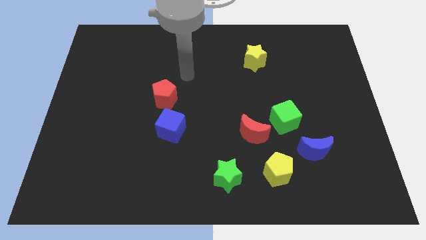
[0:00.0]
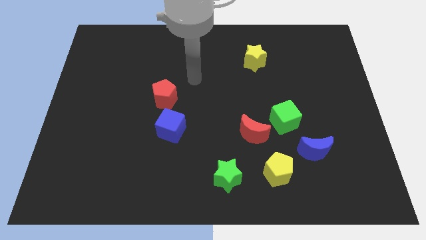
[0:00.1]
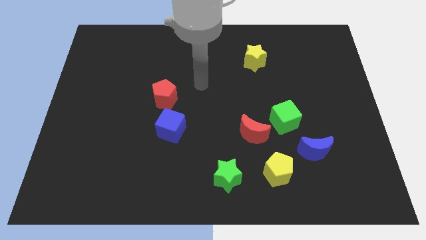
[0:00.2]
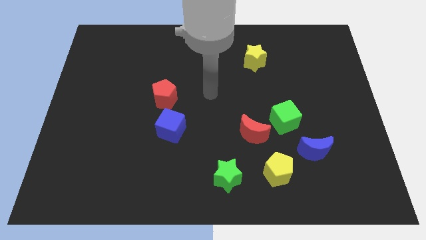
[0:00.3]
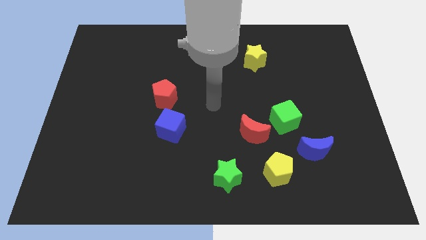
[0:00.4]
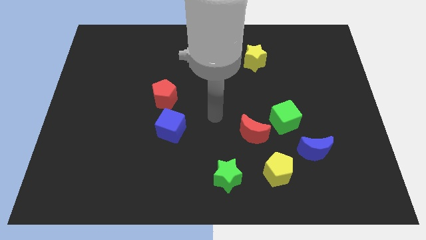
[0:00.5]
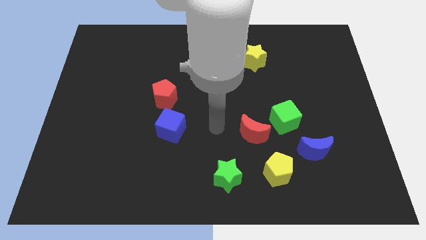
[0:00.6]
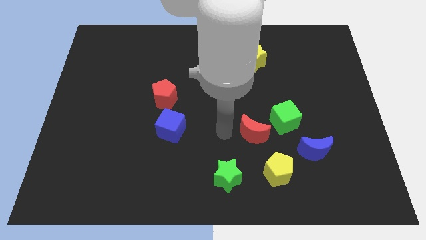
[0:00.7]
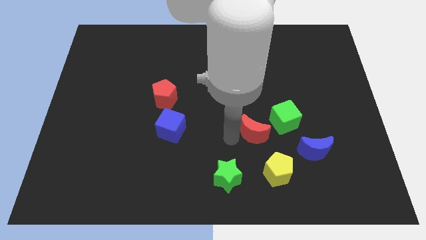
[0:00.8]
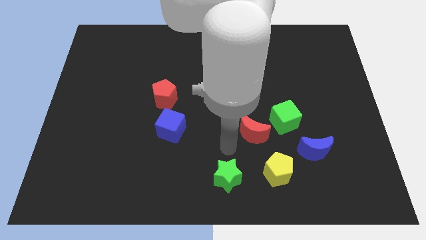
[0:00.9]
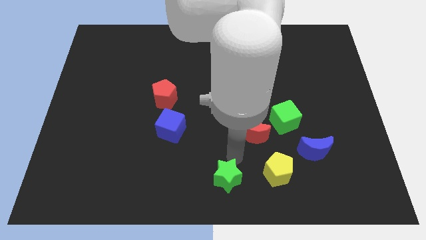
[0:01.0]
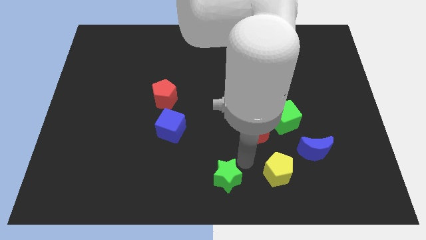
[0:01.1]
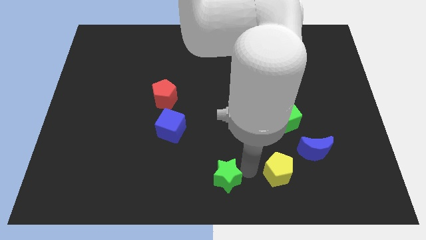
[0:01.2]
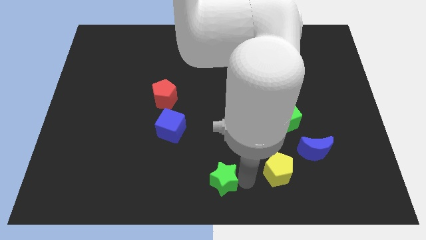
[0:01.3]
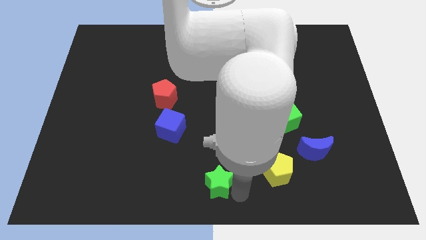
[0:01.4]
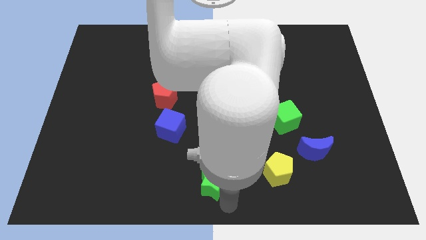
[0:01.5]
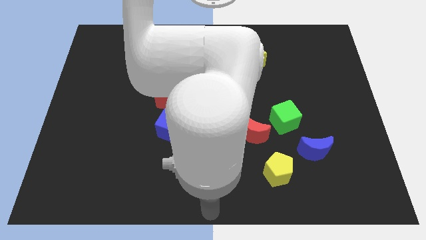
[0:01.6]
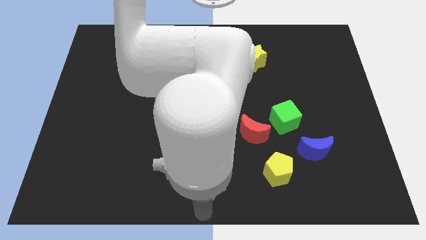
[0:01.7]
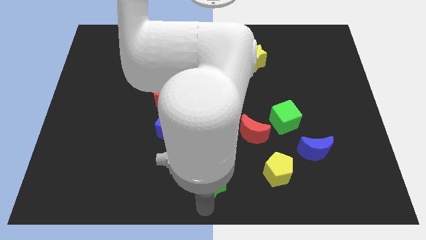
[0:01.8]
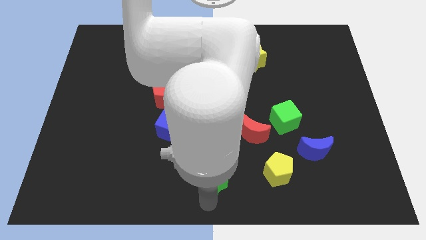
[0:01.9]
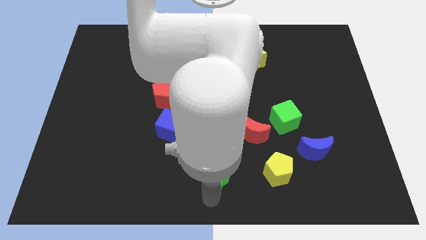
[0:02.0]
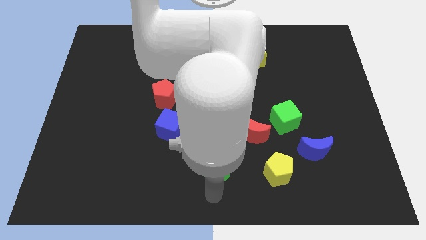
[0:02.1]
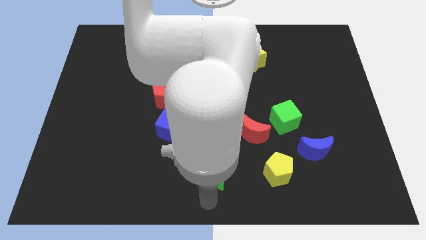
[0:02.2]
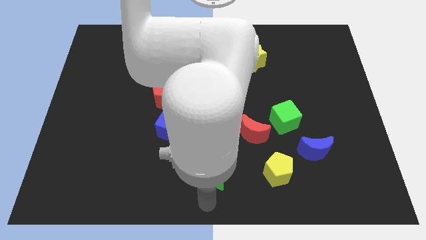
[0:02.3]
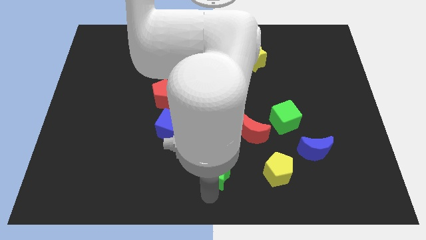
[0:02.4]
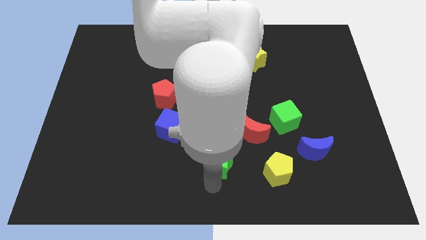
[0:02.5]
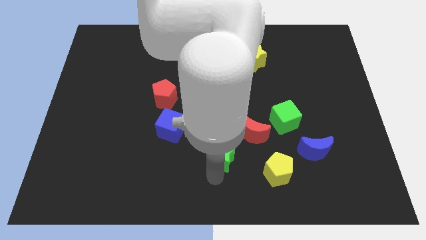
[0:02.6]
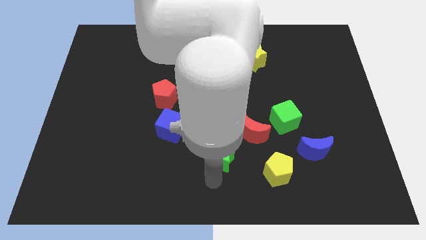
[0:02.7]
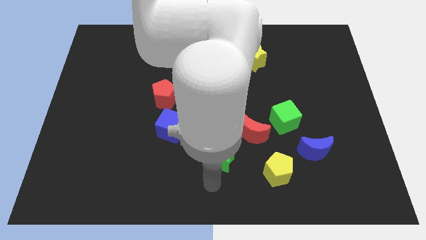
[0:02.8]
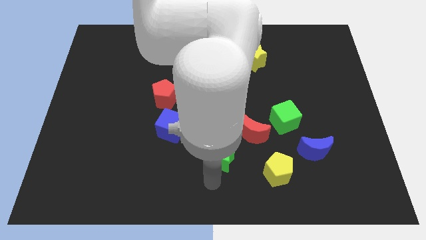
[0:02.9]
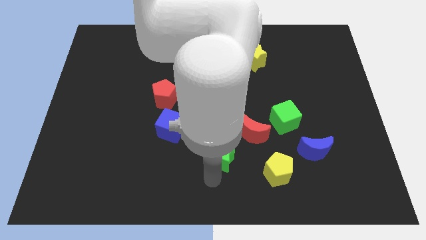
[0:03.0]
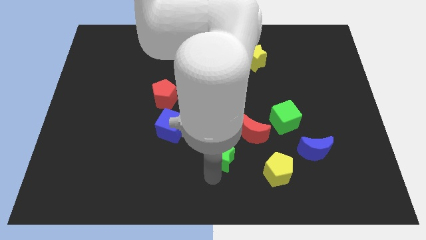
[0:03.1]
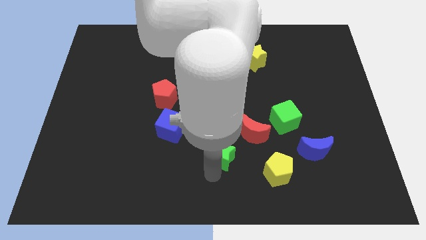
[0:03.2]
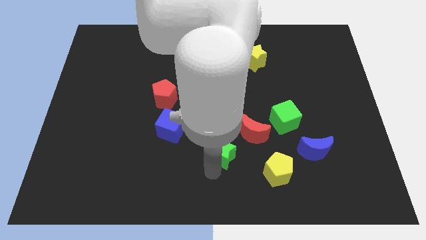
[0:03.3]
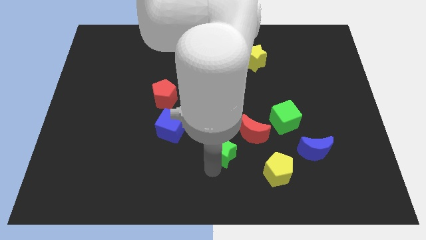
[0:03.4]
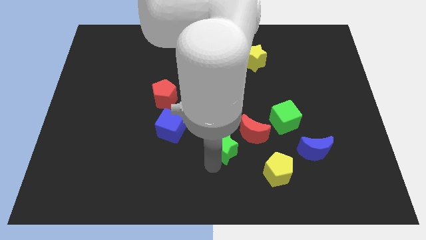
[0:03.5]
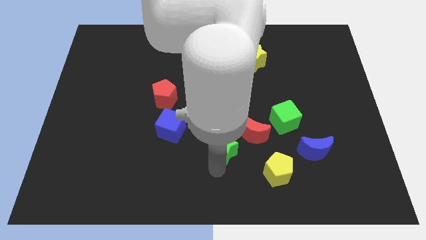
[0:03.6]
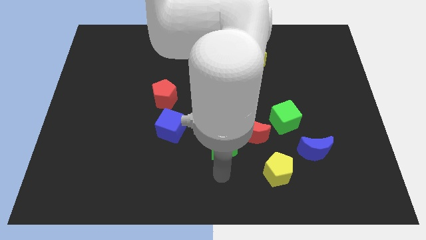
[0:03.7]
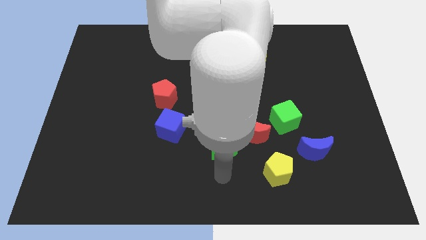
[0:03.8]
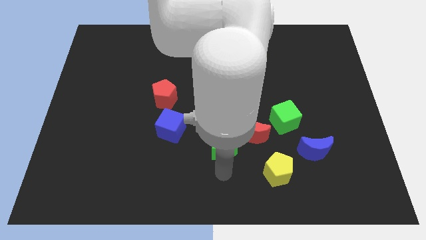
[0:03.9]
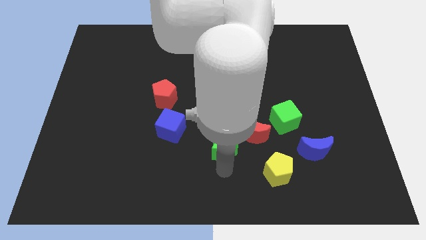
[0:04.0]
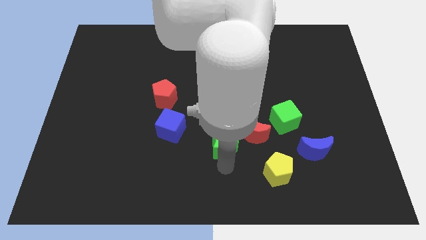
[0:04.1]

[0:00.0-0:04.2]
slightly push the green star up

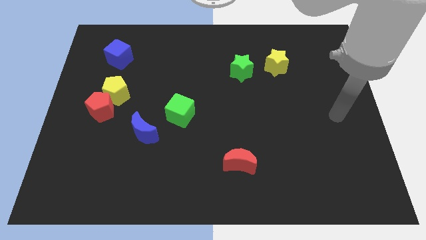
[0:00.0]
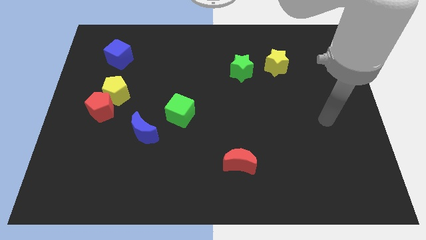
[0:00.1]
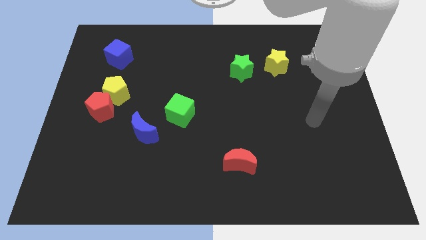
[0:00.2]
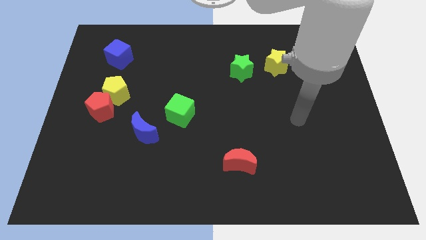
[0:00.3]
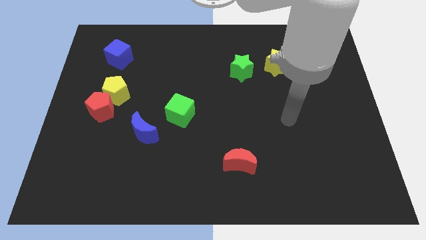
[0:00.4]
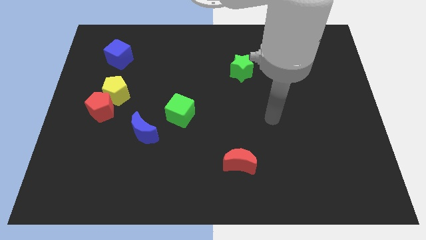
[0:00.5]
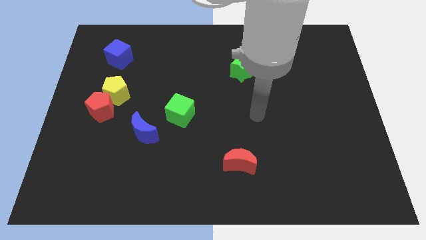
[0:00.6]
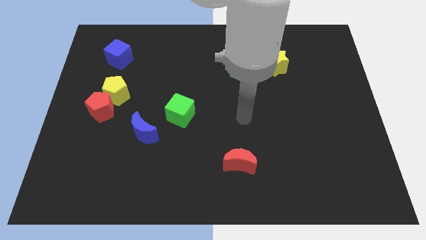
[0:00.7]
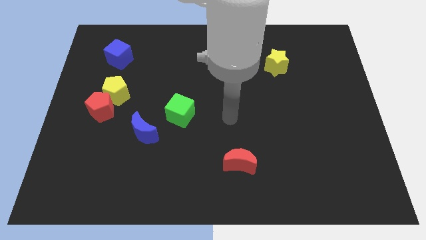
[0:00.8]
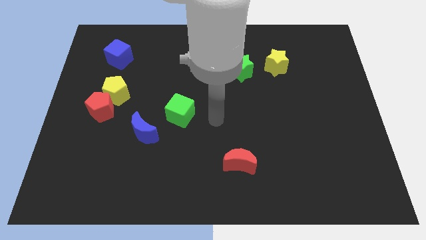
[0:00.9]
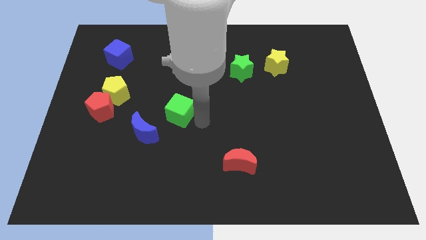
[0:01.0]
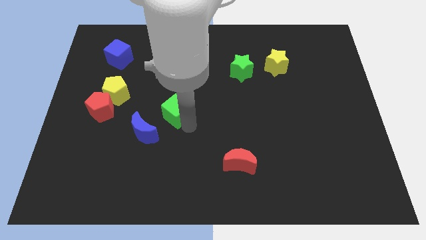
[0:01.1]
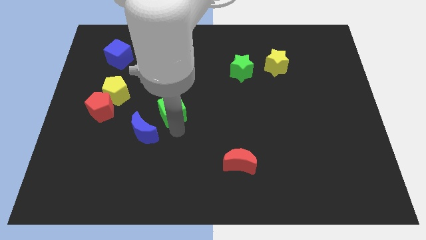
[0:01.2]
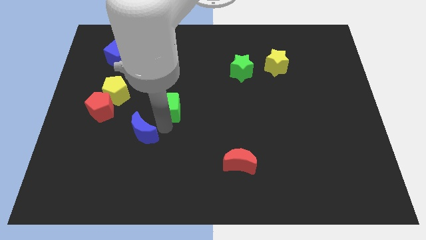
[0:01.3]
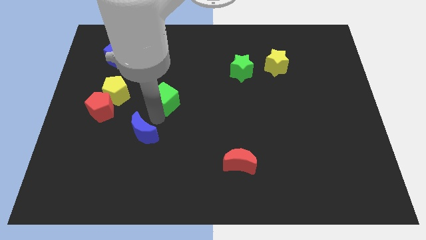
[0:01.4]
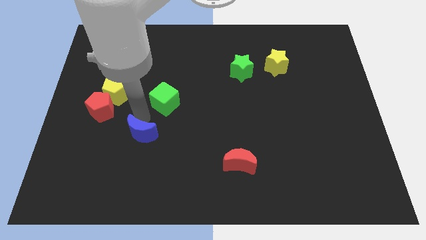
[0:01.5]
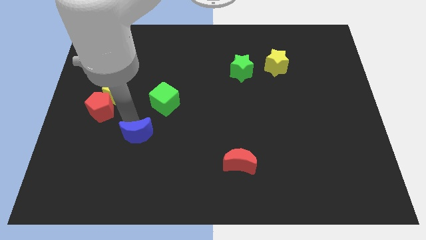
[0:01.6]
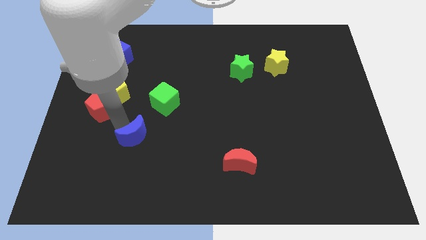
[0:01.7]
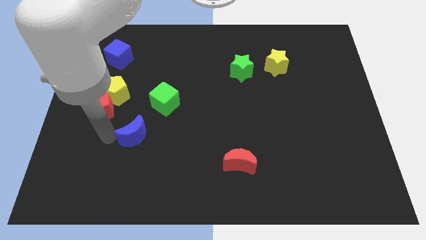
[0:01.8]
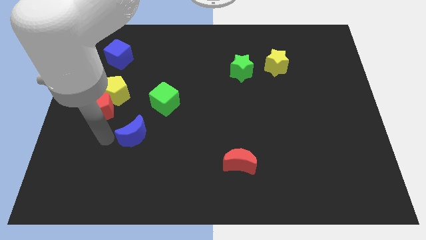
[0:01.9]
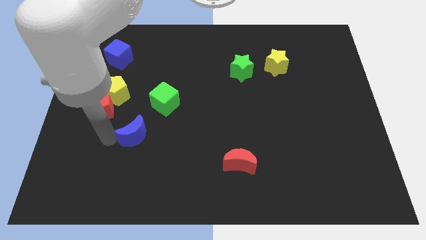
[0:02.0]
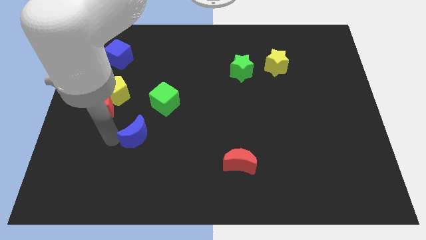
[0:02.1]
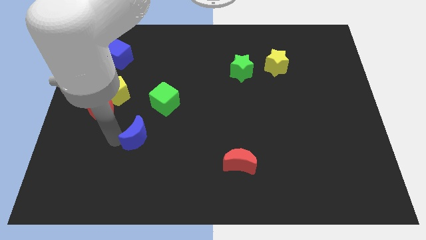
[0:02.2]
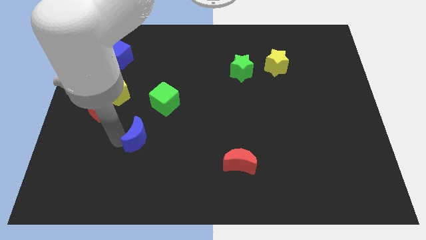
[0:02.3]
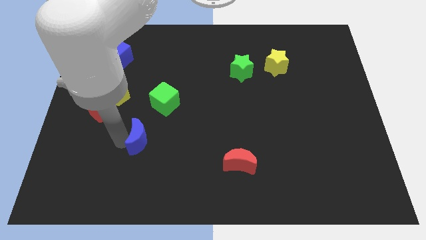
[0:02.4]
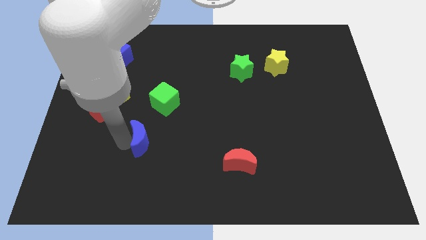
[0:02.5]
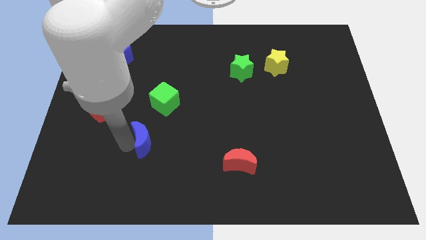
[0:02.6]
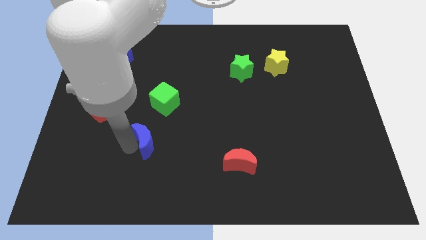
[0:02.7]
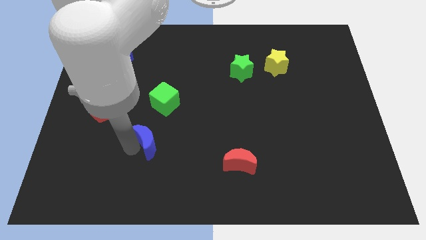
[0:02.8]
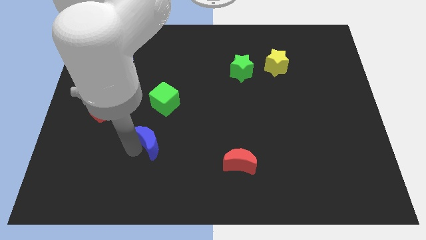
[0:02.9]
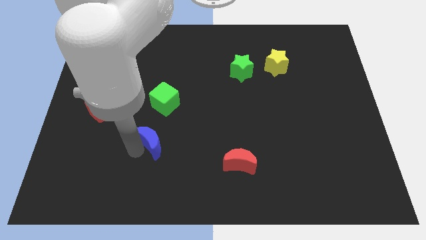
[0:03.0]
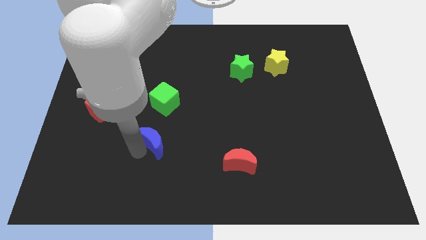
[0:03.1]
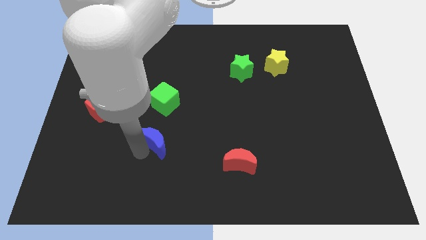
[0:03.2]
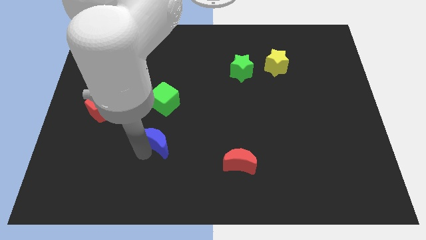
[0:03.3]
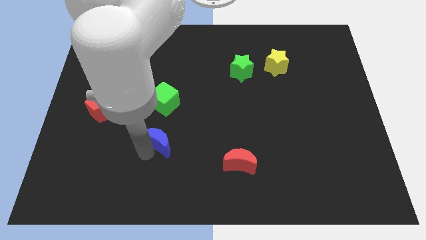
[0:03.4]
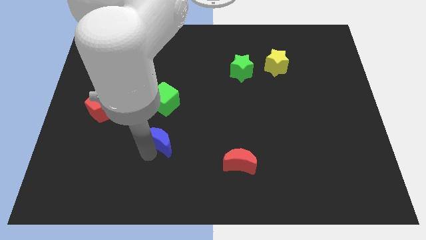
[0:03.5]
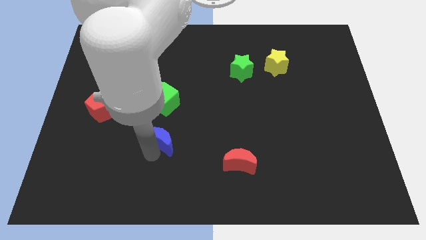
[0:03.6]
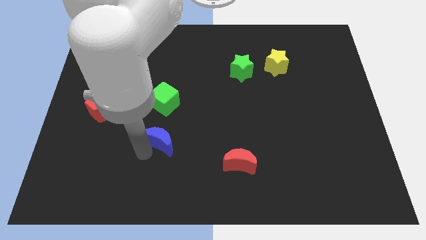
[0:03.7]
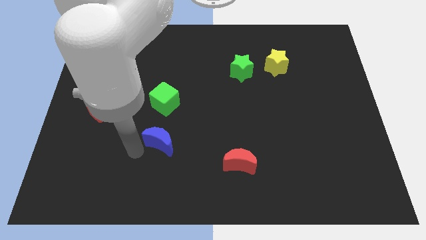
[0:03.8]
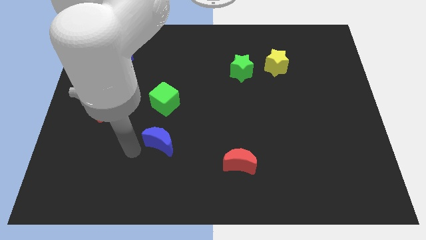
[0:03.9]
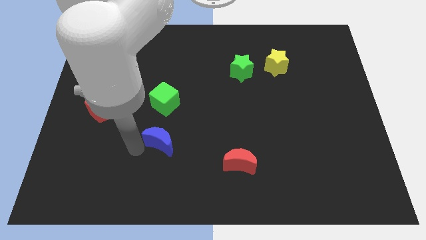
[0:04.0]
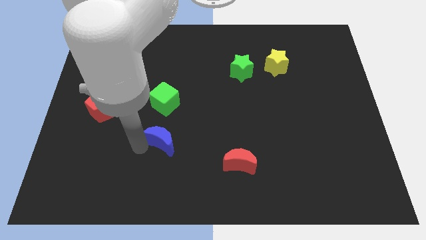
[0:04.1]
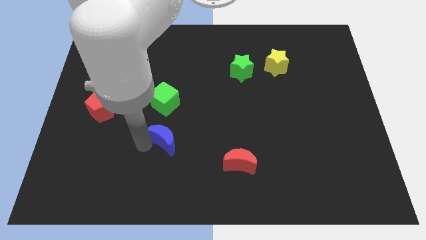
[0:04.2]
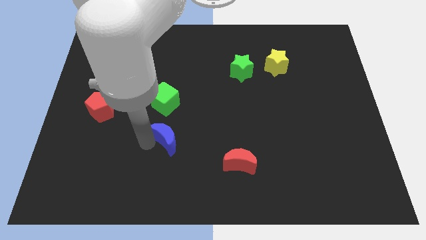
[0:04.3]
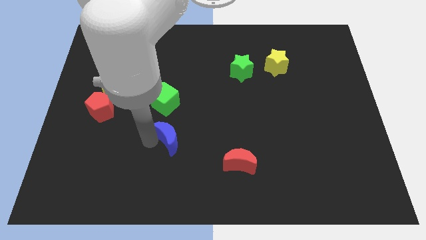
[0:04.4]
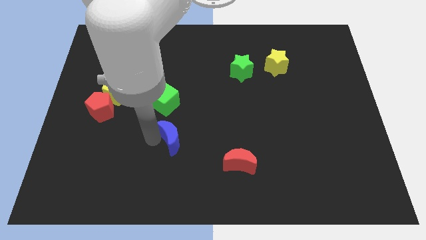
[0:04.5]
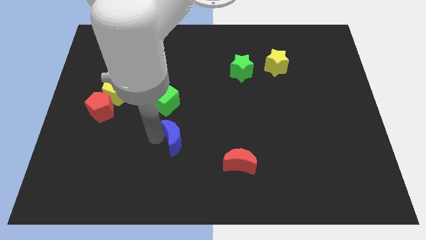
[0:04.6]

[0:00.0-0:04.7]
move the blue moon to the right somewhat
